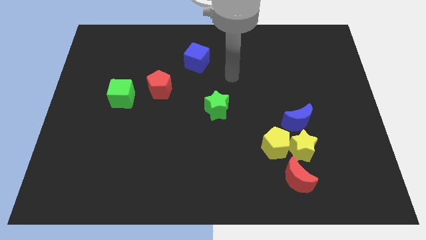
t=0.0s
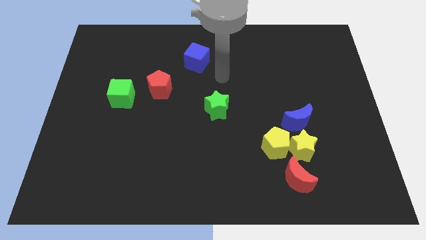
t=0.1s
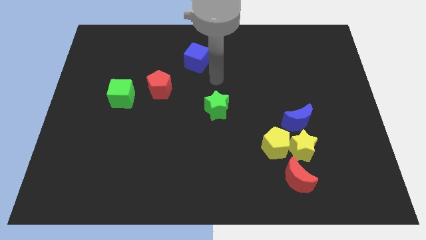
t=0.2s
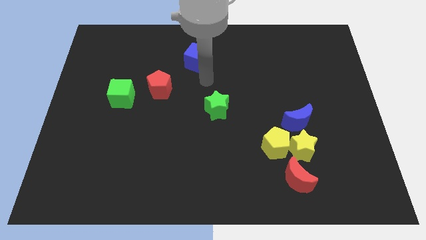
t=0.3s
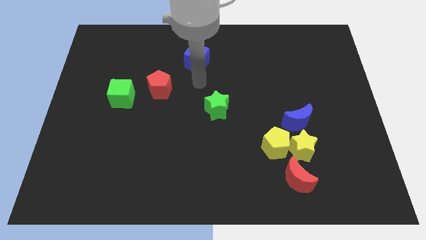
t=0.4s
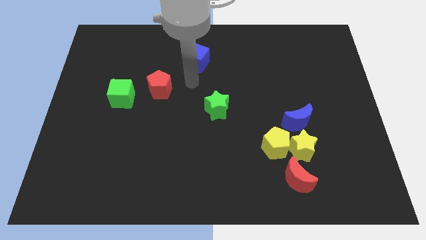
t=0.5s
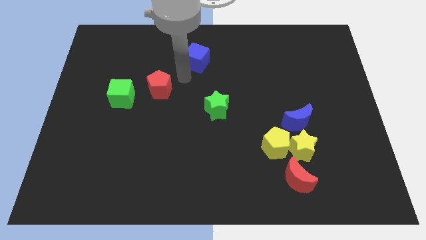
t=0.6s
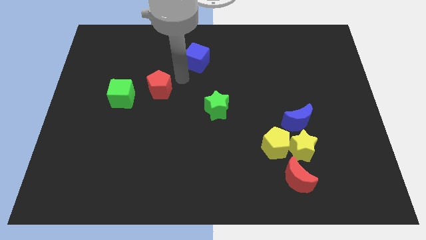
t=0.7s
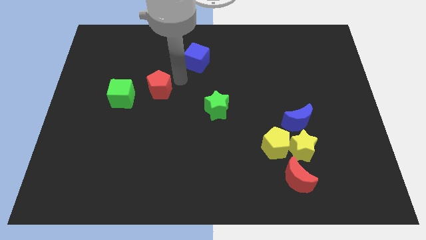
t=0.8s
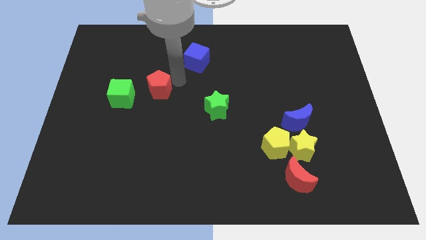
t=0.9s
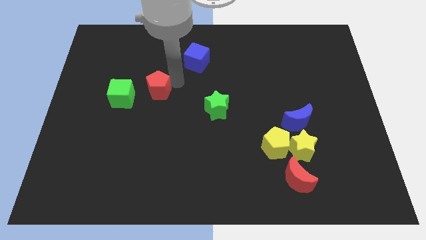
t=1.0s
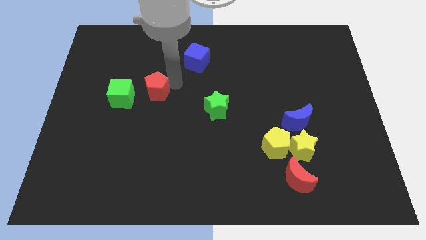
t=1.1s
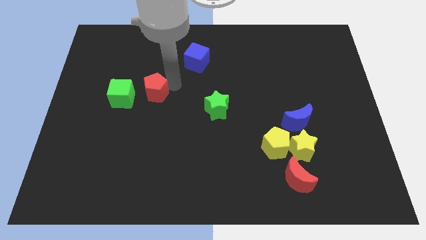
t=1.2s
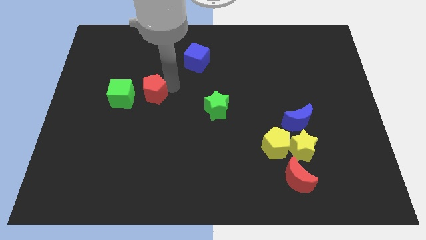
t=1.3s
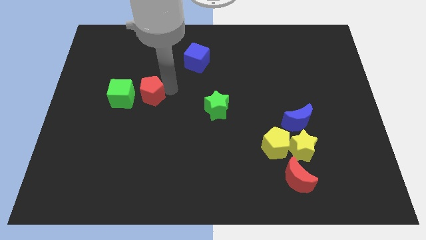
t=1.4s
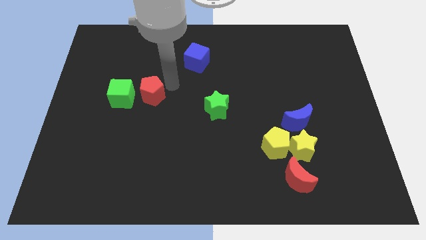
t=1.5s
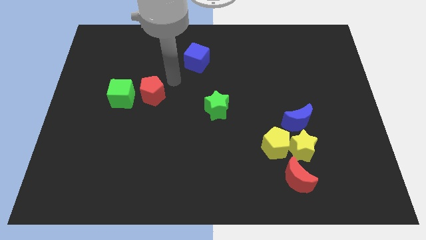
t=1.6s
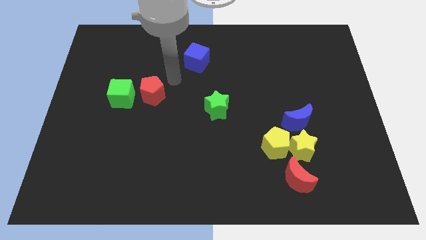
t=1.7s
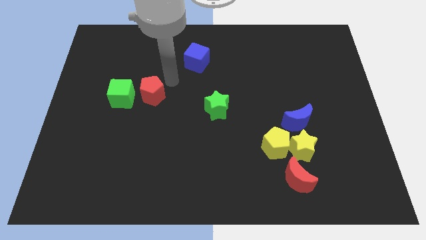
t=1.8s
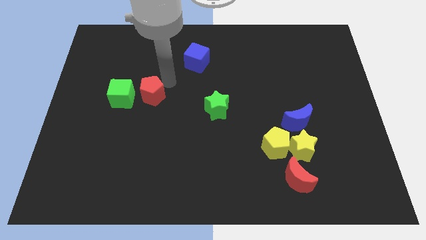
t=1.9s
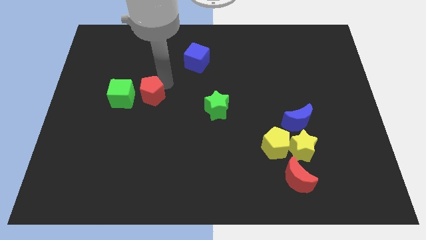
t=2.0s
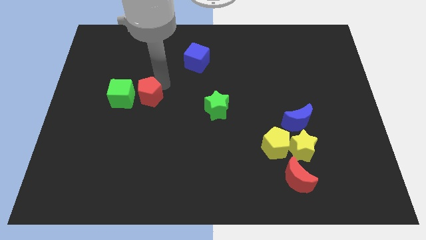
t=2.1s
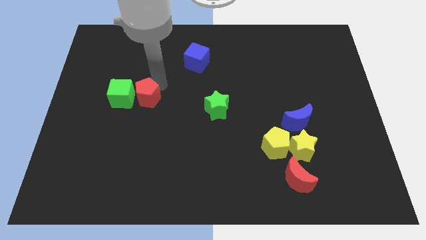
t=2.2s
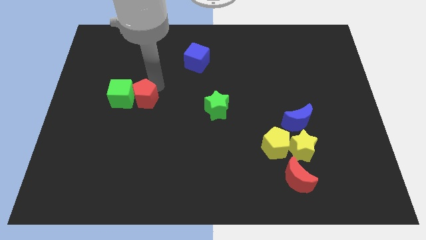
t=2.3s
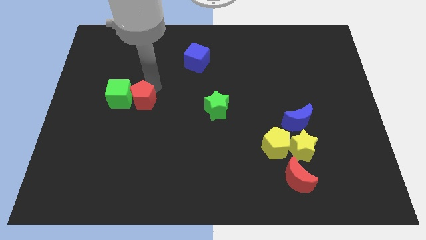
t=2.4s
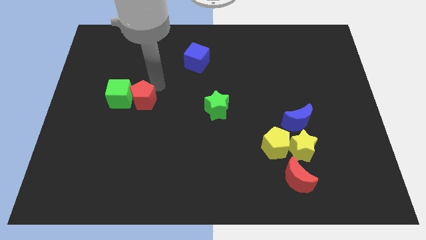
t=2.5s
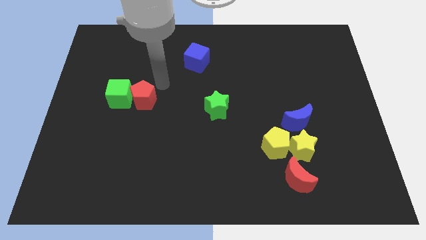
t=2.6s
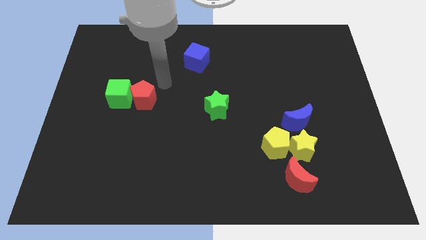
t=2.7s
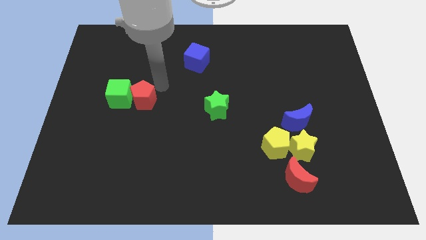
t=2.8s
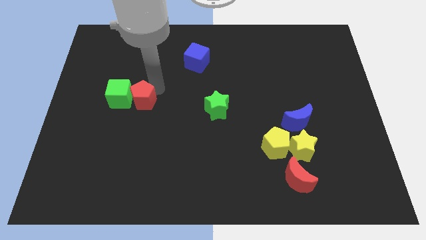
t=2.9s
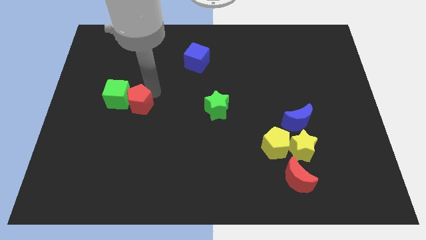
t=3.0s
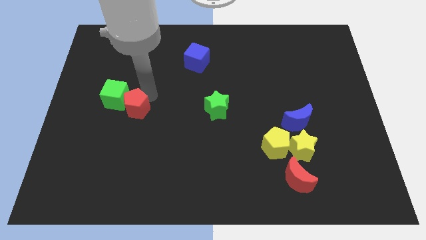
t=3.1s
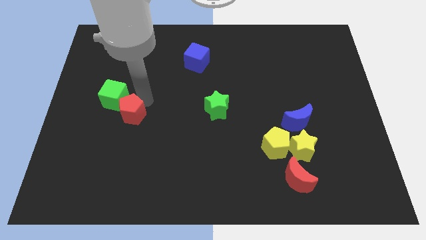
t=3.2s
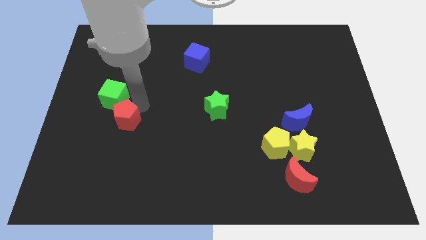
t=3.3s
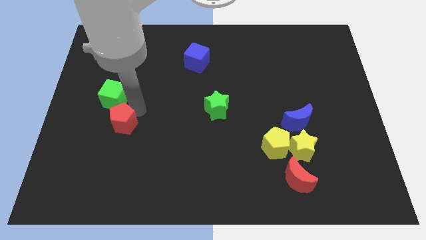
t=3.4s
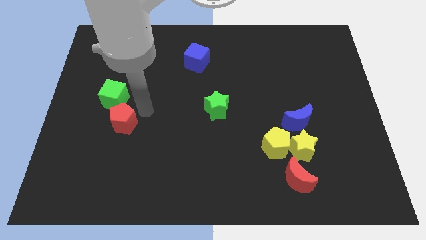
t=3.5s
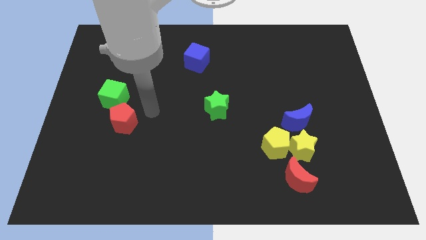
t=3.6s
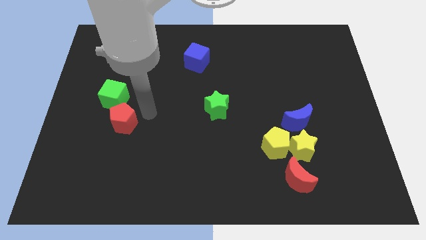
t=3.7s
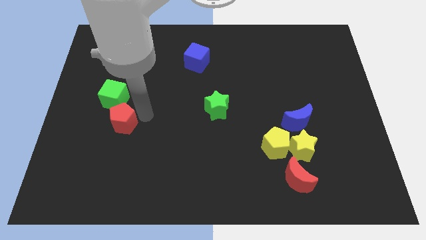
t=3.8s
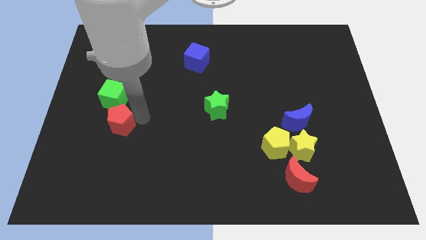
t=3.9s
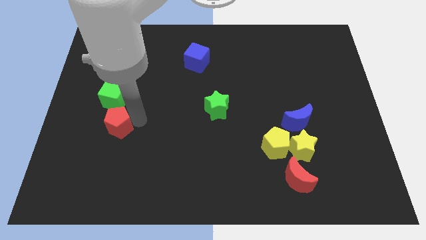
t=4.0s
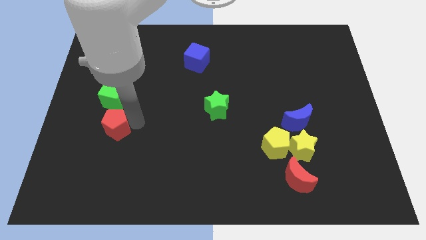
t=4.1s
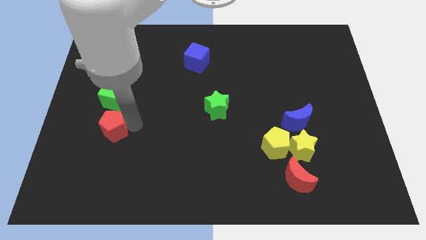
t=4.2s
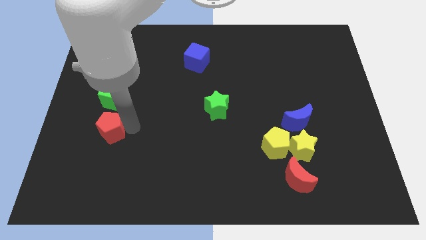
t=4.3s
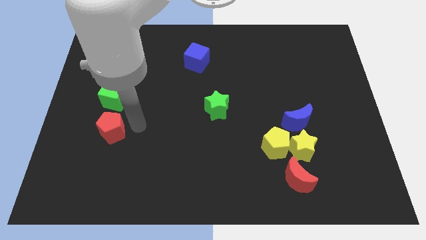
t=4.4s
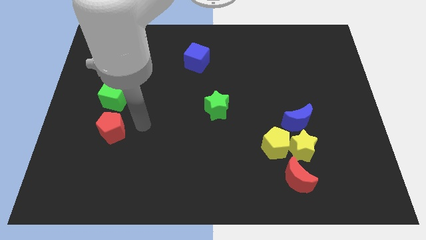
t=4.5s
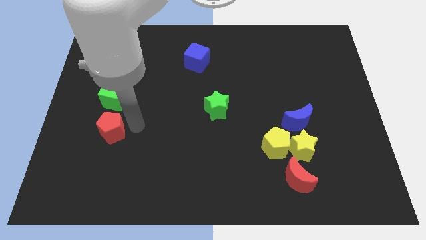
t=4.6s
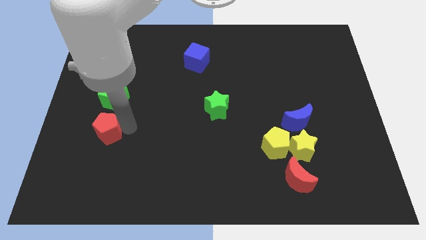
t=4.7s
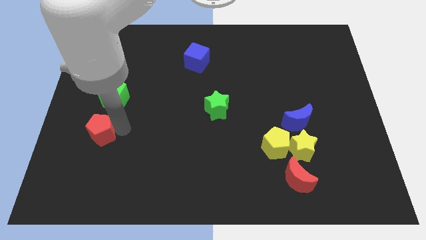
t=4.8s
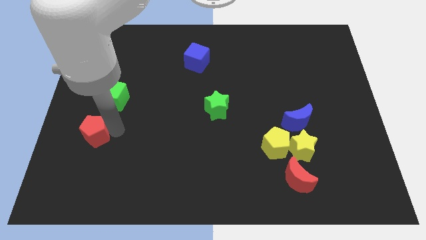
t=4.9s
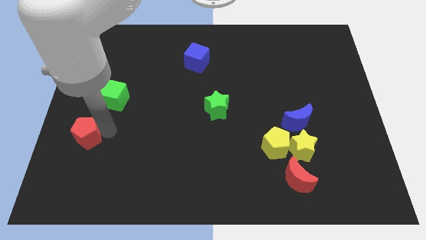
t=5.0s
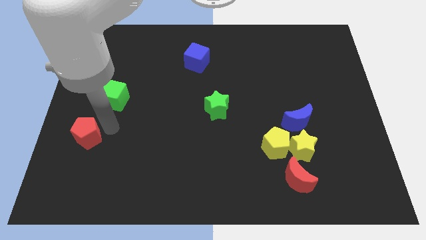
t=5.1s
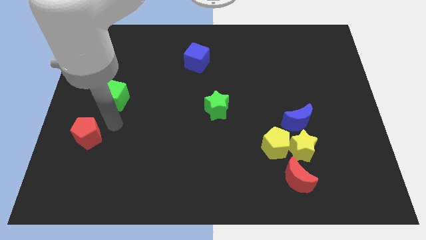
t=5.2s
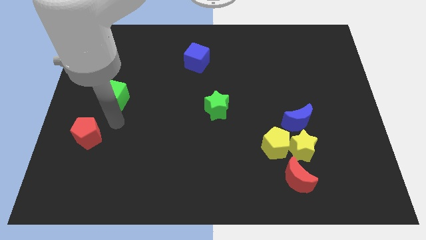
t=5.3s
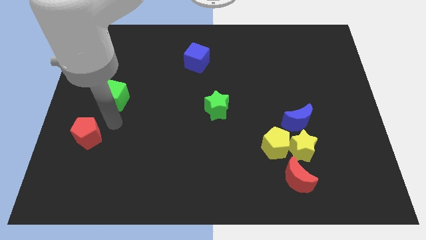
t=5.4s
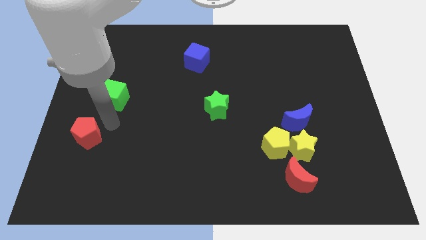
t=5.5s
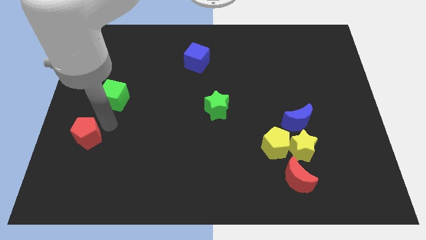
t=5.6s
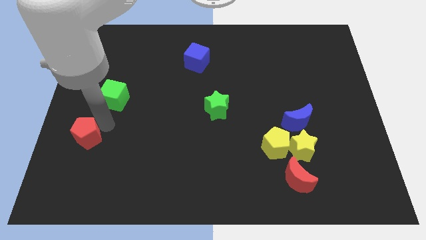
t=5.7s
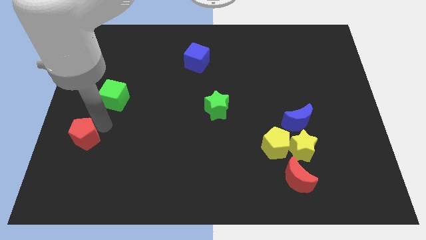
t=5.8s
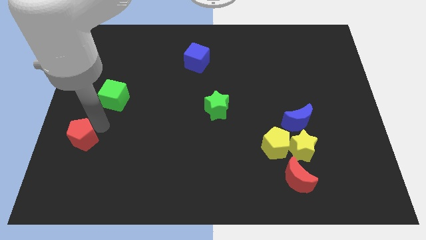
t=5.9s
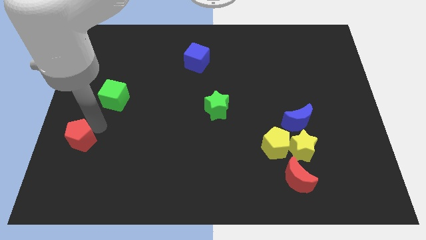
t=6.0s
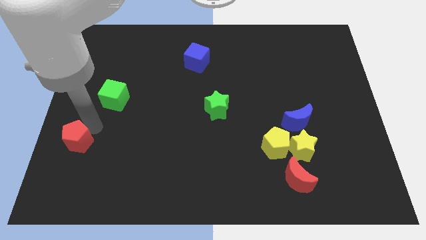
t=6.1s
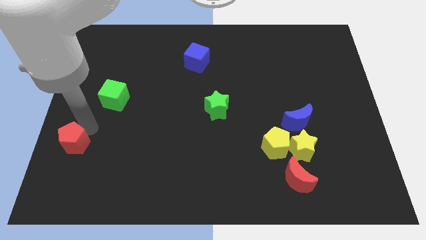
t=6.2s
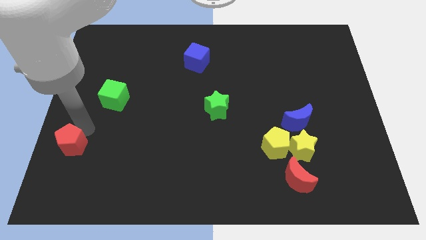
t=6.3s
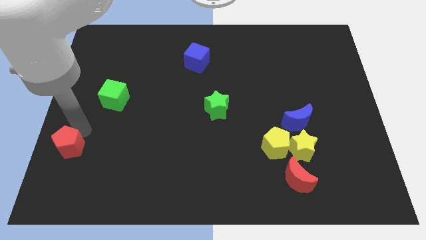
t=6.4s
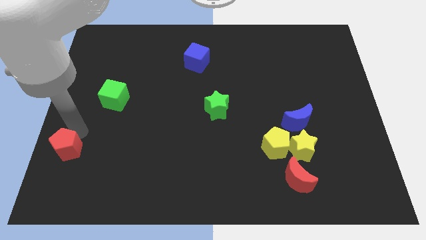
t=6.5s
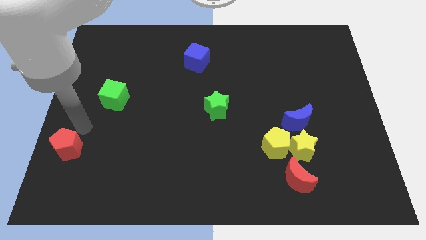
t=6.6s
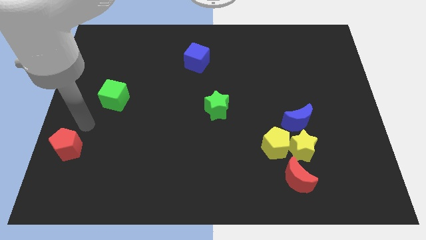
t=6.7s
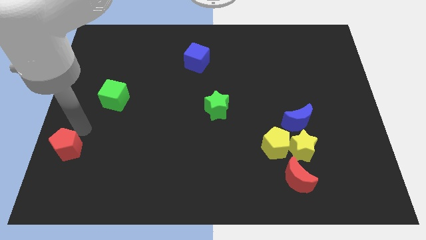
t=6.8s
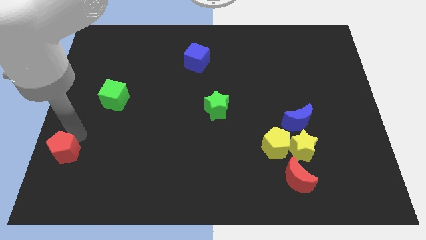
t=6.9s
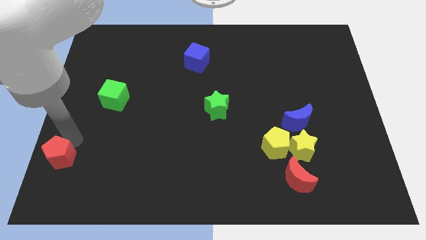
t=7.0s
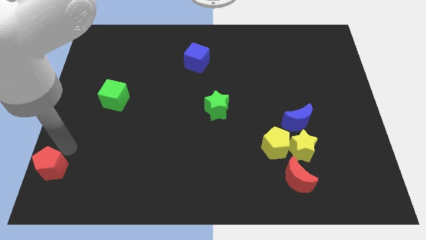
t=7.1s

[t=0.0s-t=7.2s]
put the red pentagon to the bottom left of the board
